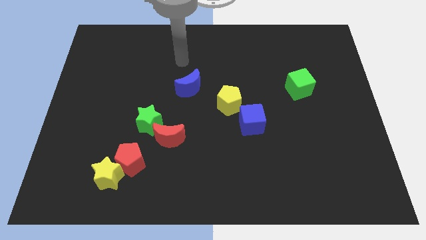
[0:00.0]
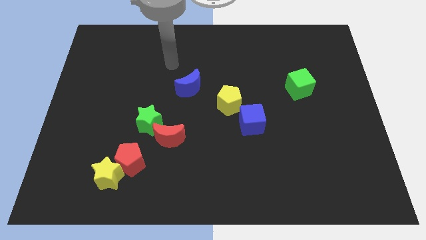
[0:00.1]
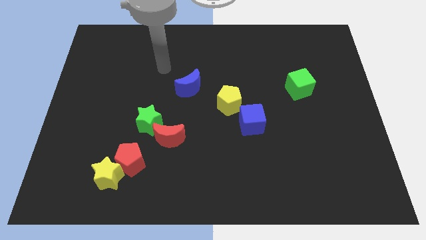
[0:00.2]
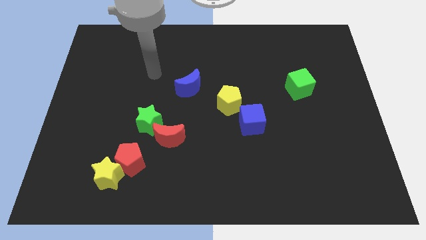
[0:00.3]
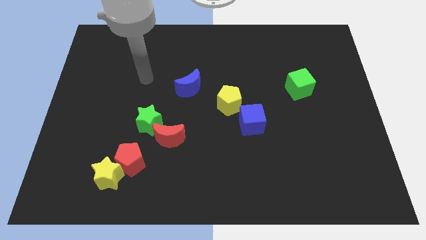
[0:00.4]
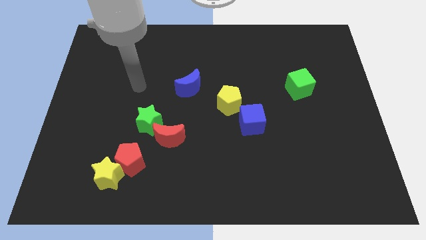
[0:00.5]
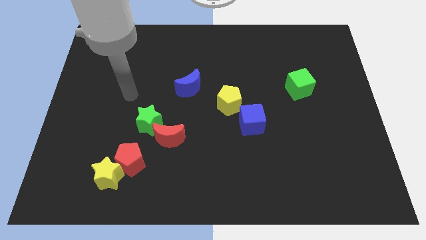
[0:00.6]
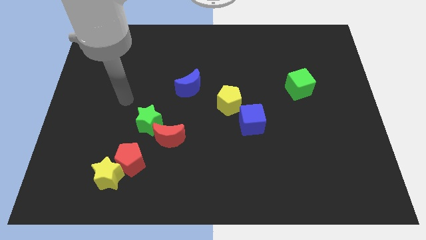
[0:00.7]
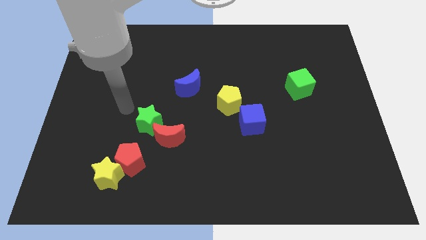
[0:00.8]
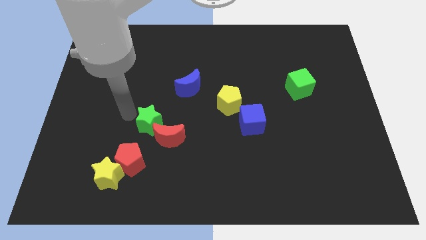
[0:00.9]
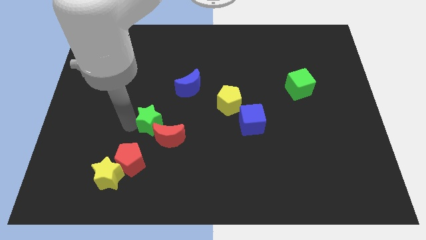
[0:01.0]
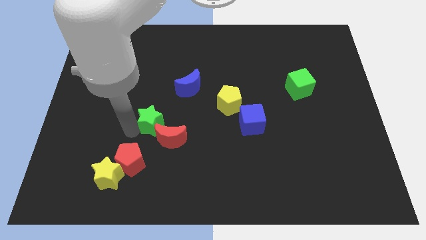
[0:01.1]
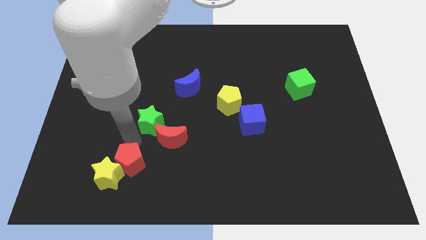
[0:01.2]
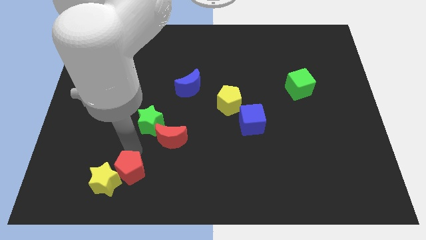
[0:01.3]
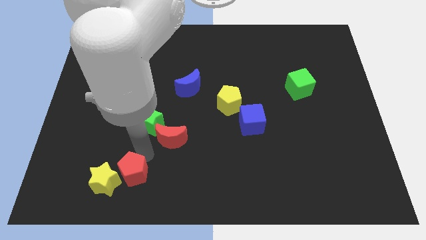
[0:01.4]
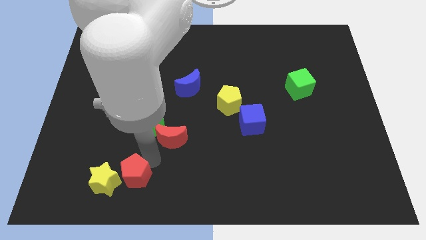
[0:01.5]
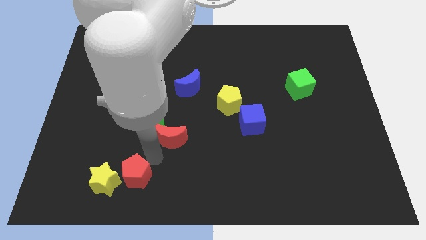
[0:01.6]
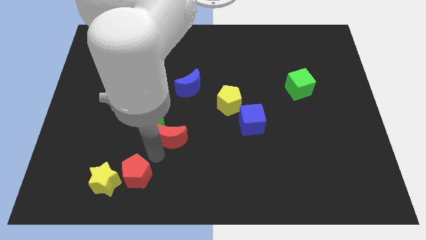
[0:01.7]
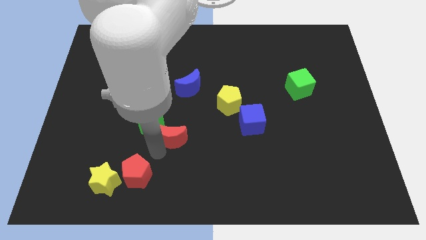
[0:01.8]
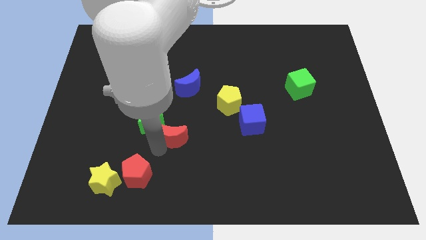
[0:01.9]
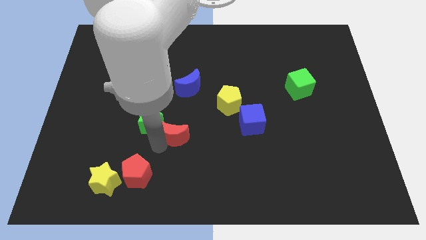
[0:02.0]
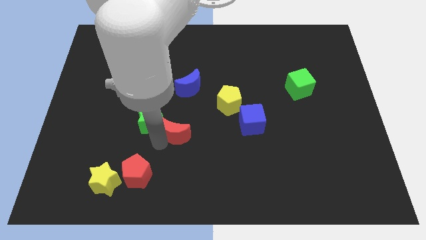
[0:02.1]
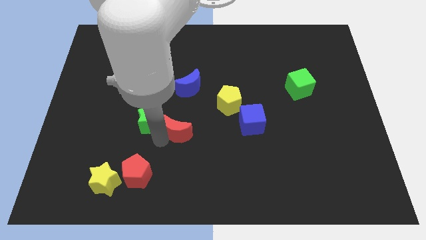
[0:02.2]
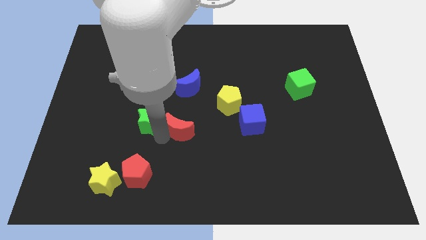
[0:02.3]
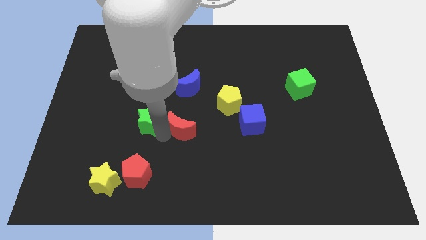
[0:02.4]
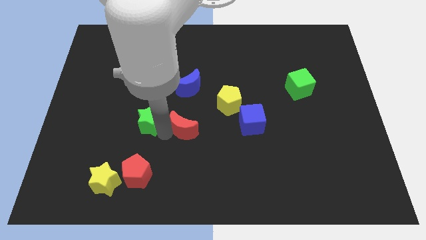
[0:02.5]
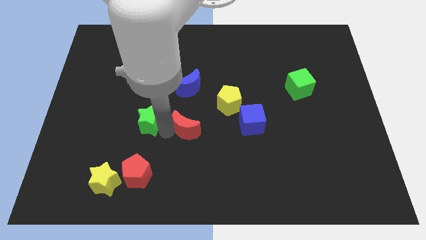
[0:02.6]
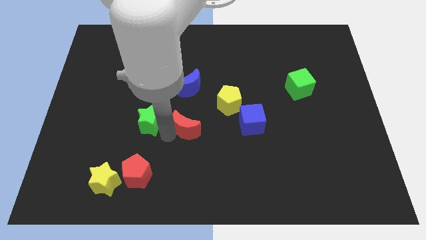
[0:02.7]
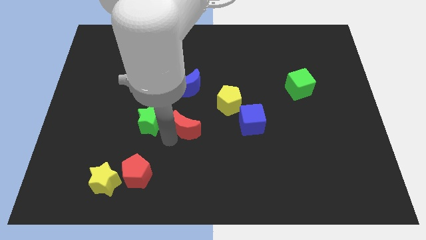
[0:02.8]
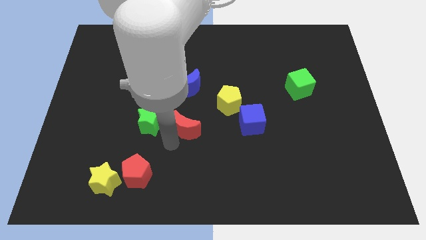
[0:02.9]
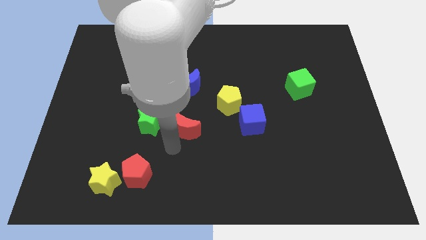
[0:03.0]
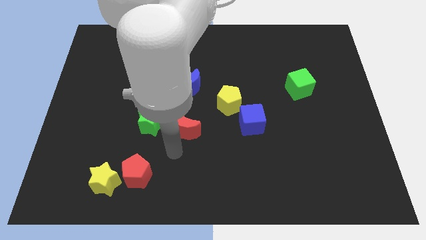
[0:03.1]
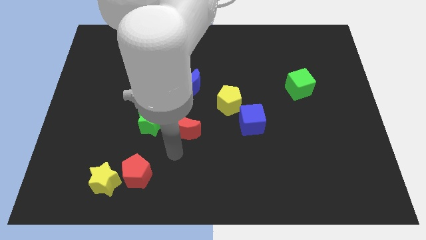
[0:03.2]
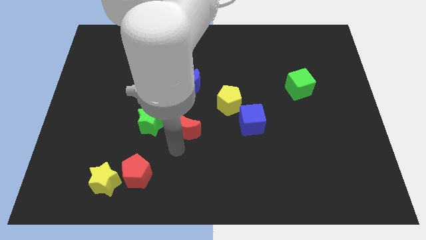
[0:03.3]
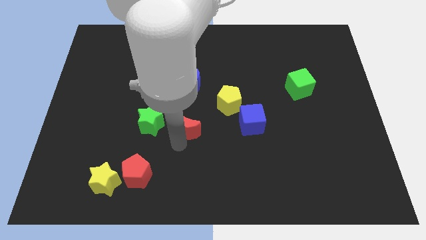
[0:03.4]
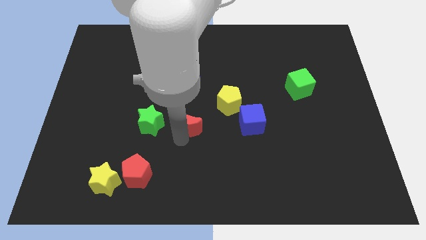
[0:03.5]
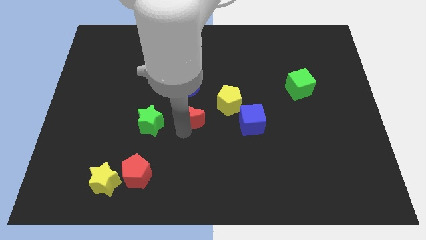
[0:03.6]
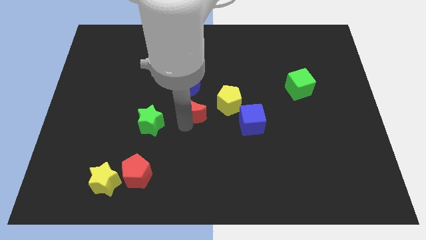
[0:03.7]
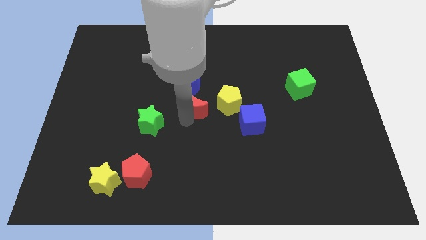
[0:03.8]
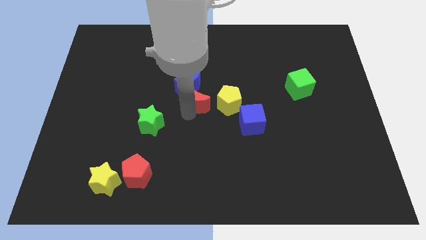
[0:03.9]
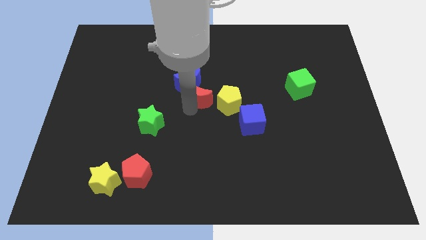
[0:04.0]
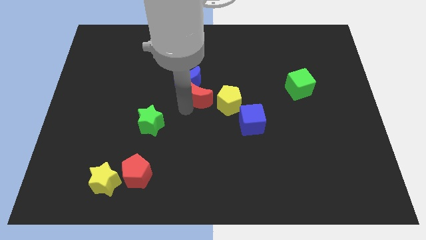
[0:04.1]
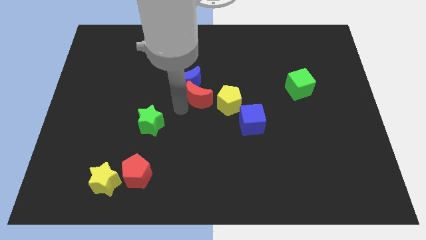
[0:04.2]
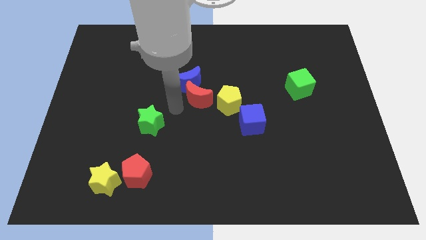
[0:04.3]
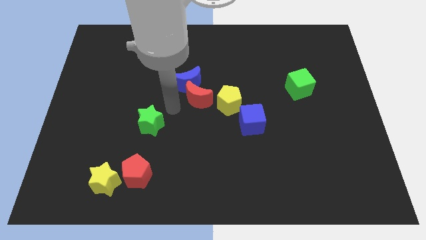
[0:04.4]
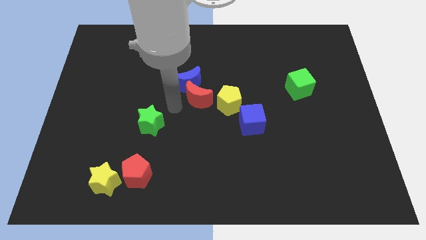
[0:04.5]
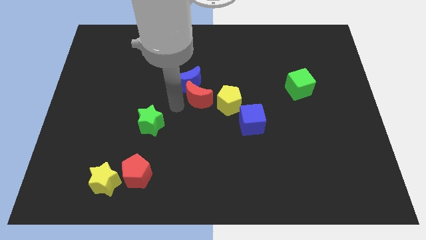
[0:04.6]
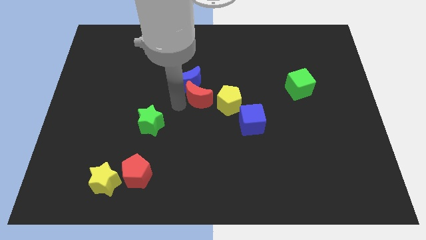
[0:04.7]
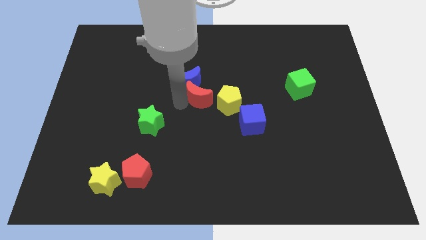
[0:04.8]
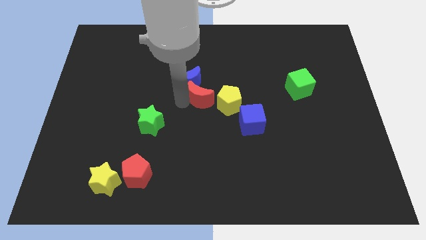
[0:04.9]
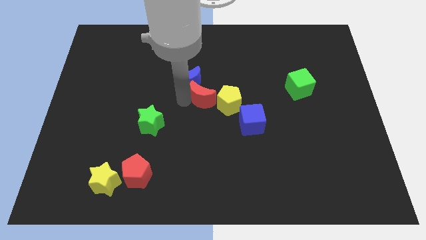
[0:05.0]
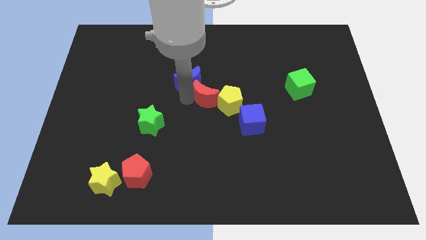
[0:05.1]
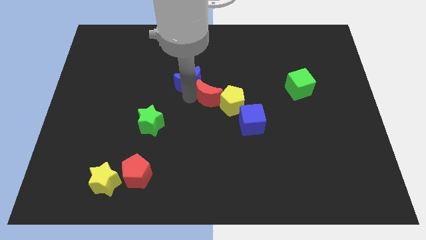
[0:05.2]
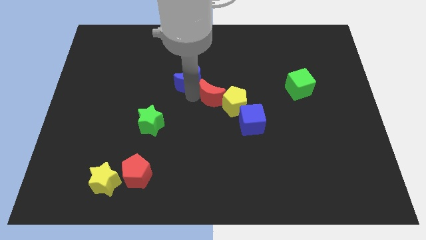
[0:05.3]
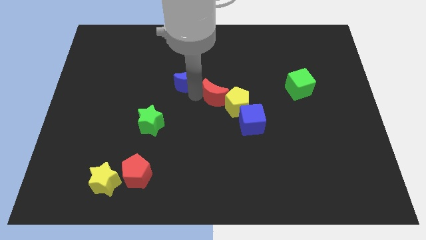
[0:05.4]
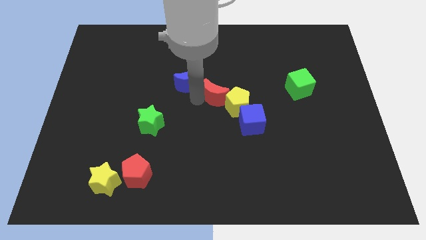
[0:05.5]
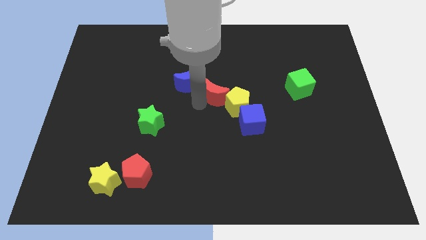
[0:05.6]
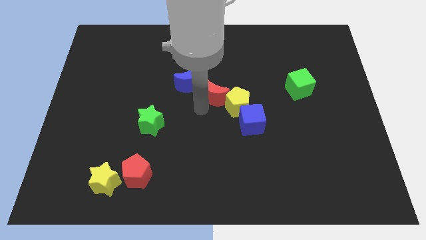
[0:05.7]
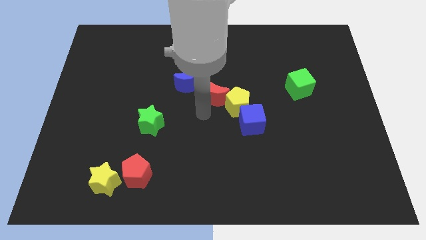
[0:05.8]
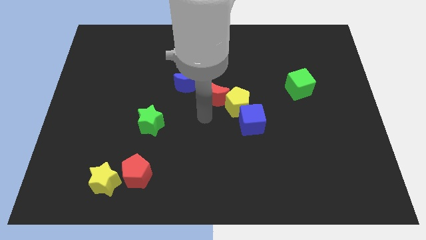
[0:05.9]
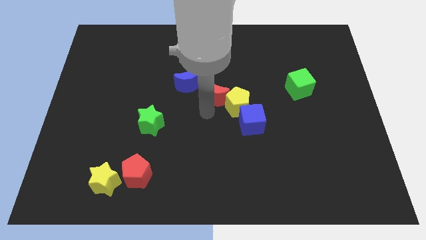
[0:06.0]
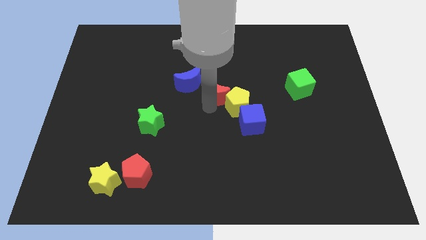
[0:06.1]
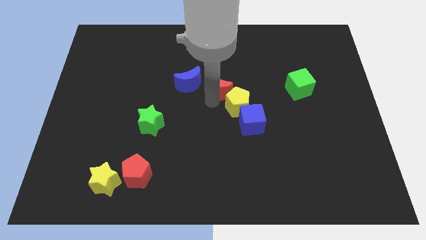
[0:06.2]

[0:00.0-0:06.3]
push the red moon to the top of the yellow pentagon

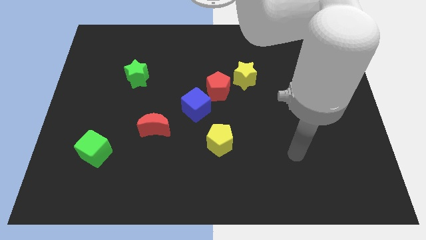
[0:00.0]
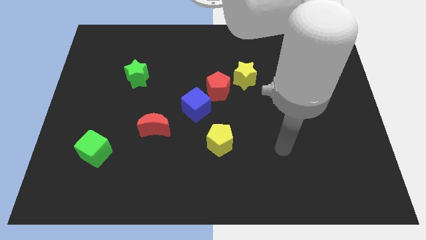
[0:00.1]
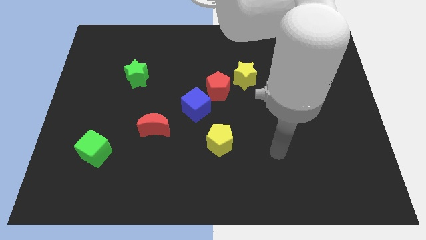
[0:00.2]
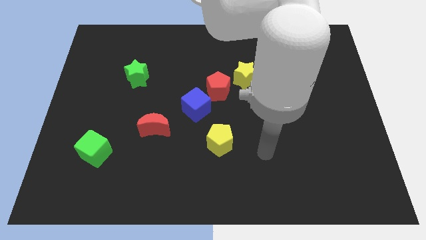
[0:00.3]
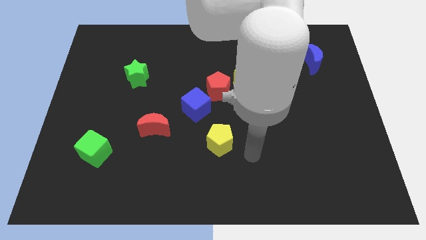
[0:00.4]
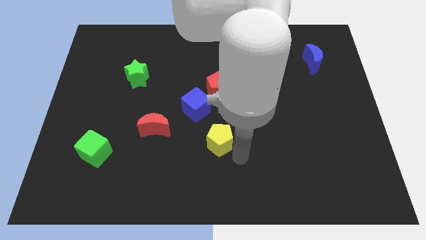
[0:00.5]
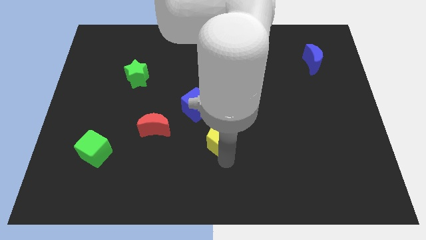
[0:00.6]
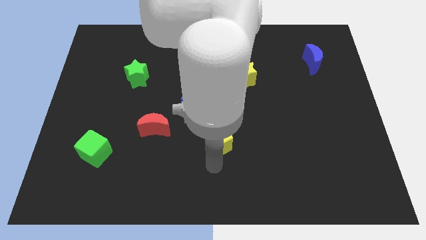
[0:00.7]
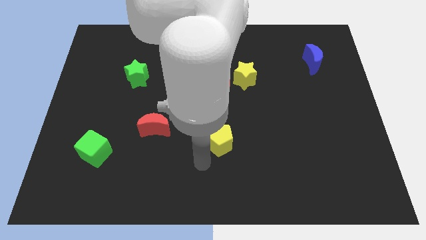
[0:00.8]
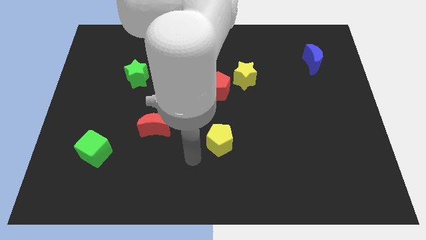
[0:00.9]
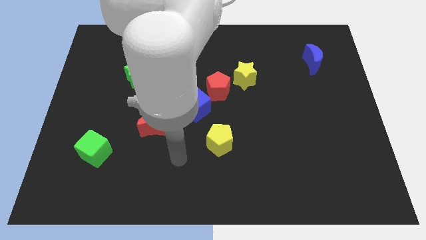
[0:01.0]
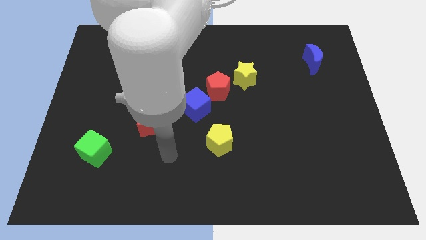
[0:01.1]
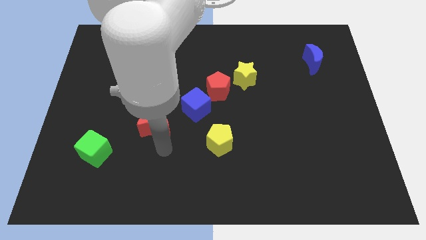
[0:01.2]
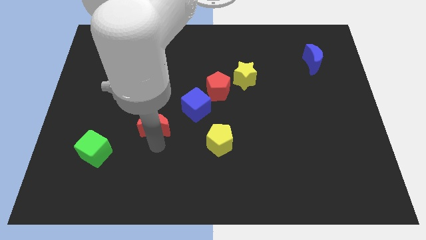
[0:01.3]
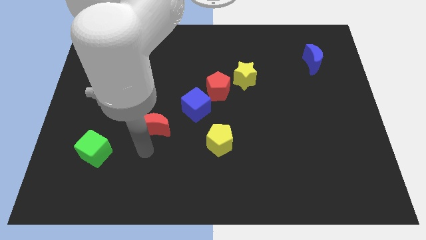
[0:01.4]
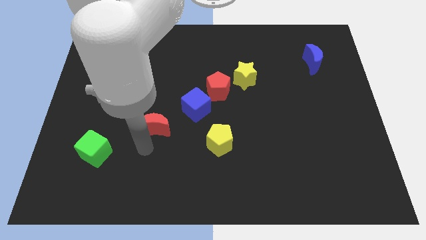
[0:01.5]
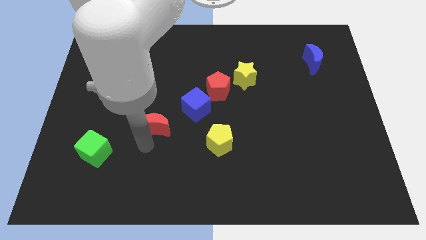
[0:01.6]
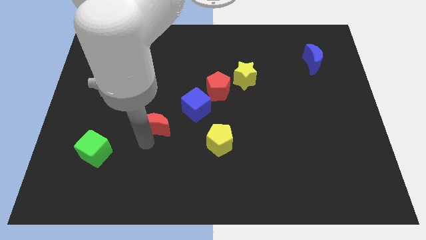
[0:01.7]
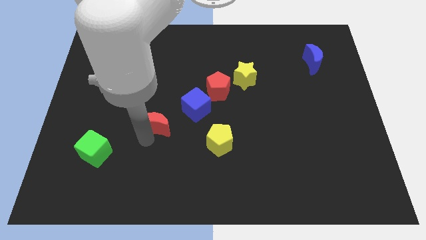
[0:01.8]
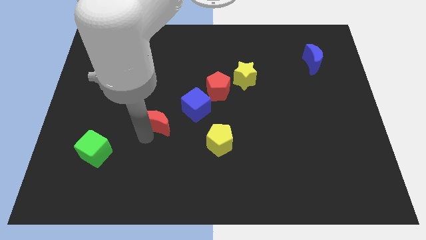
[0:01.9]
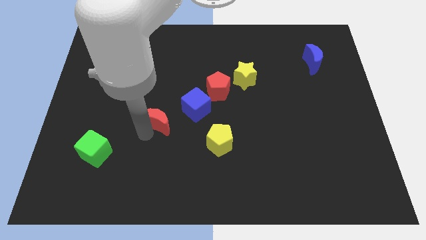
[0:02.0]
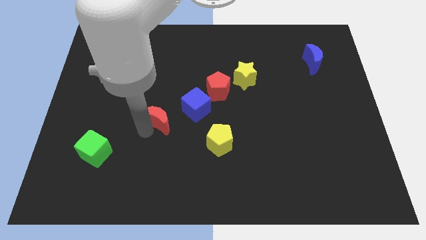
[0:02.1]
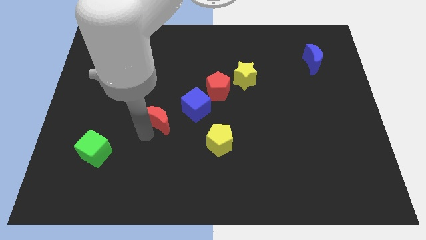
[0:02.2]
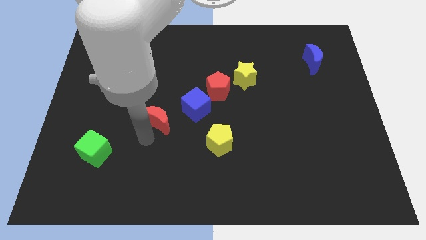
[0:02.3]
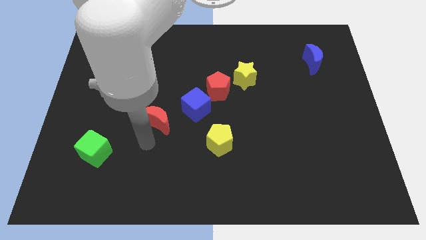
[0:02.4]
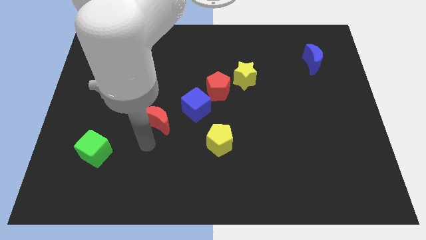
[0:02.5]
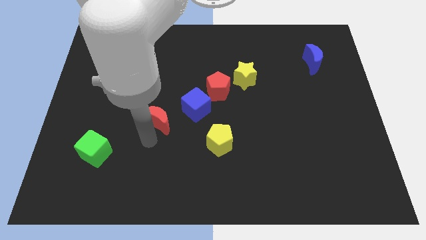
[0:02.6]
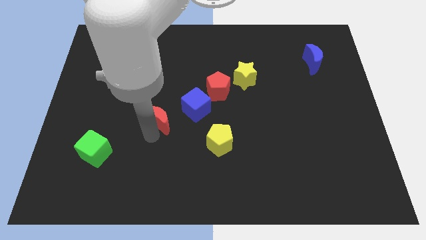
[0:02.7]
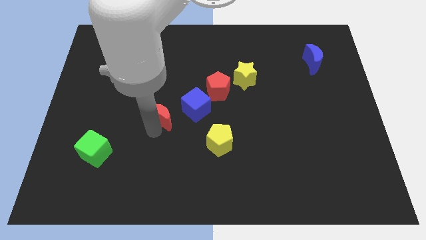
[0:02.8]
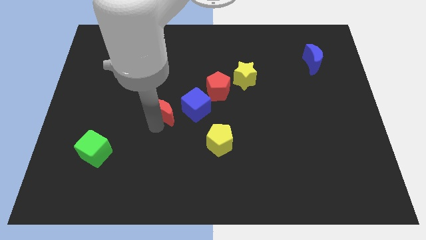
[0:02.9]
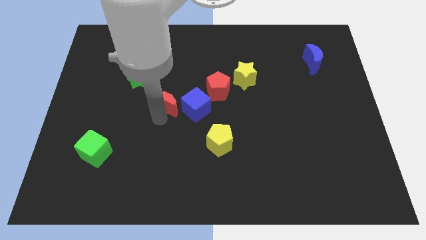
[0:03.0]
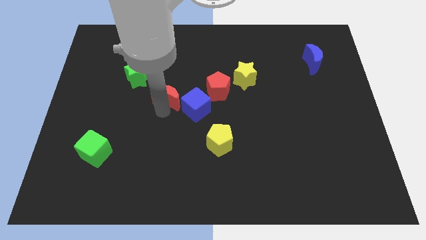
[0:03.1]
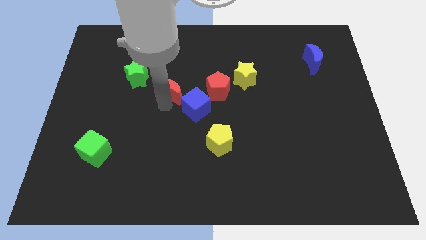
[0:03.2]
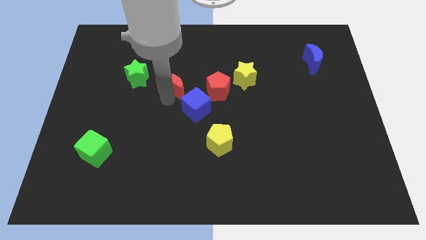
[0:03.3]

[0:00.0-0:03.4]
slide the red moon to the right side of the green star
